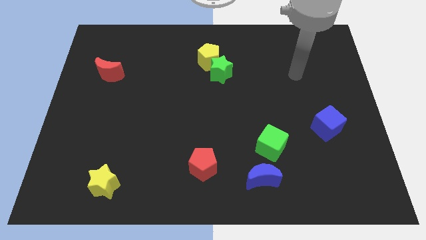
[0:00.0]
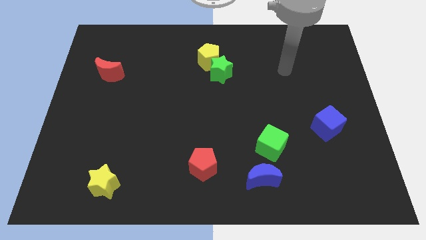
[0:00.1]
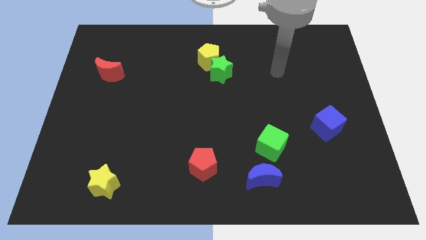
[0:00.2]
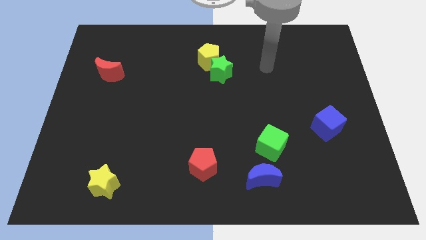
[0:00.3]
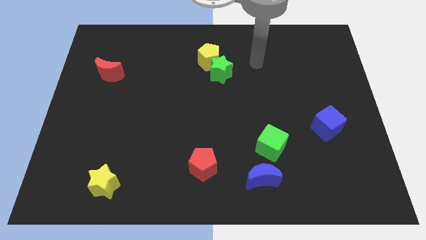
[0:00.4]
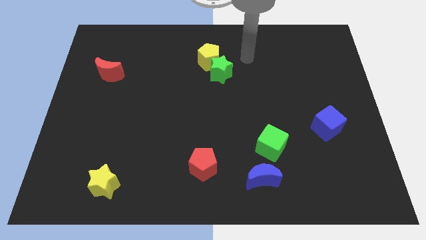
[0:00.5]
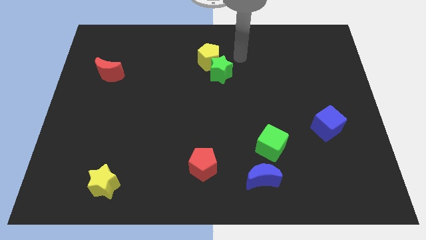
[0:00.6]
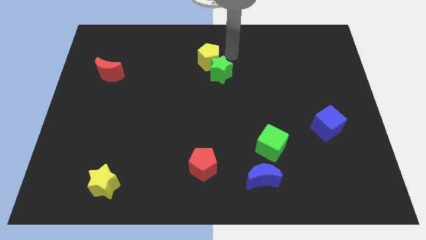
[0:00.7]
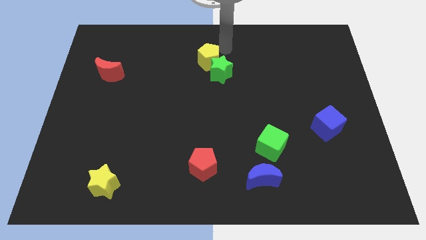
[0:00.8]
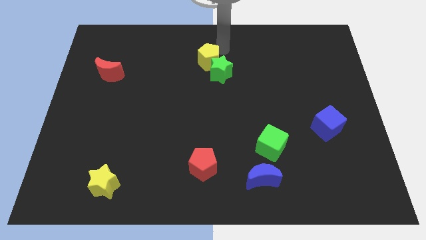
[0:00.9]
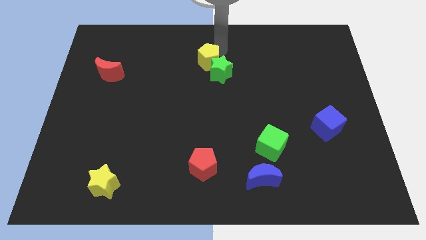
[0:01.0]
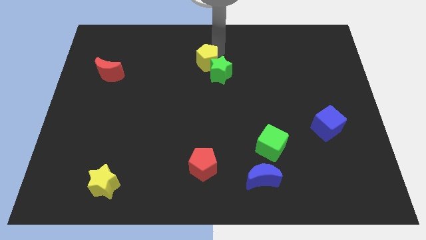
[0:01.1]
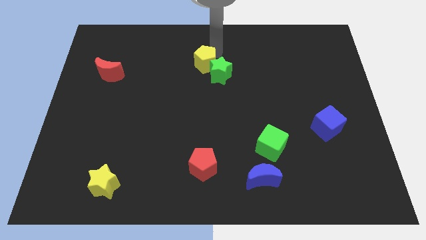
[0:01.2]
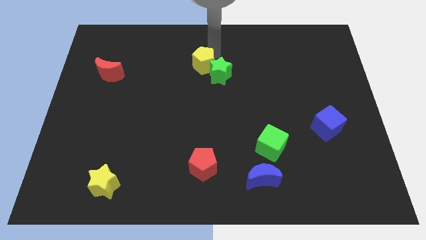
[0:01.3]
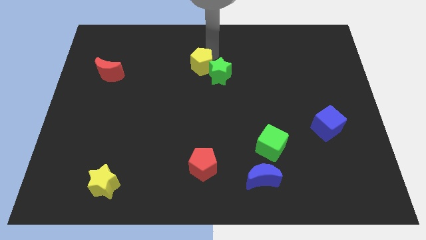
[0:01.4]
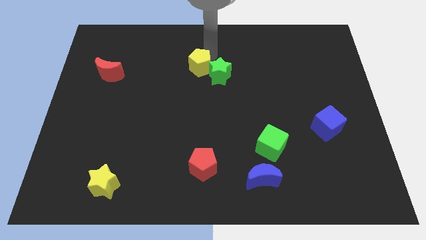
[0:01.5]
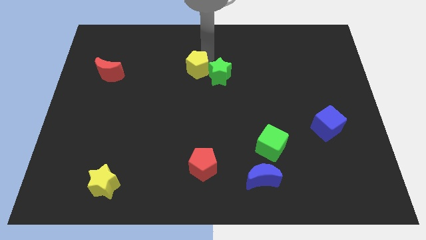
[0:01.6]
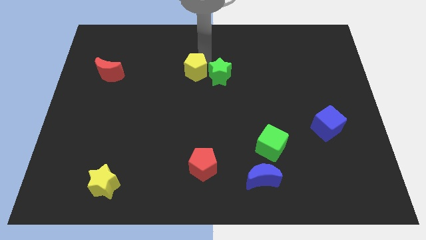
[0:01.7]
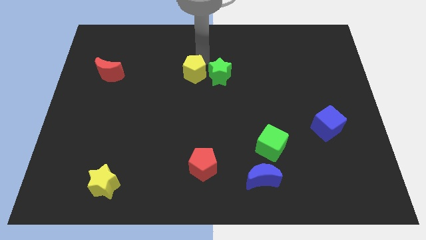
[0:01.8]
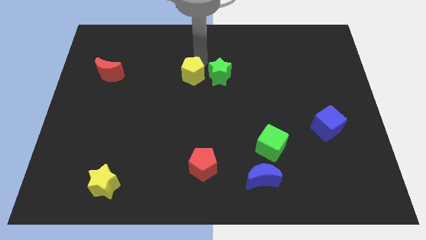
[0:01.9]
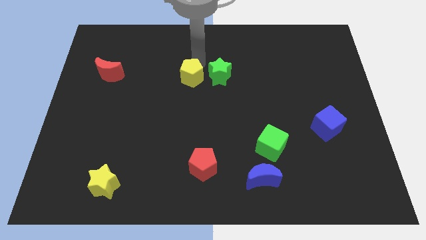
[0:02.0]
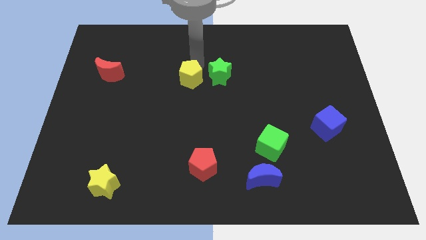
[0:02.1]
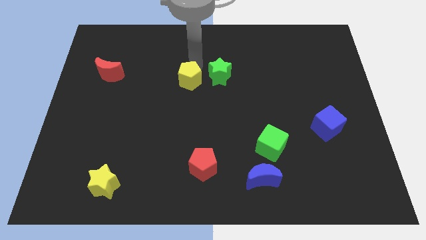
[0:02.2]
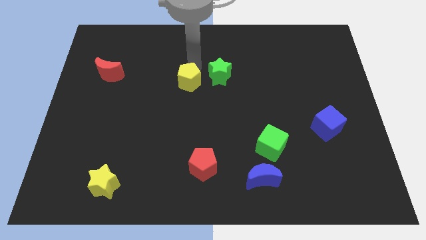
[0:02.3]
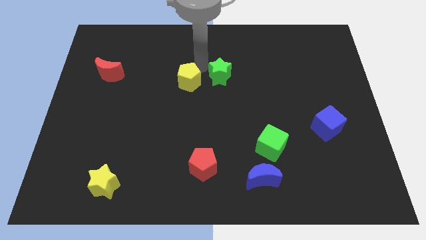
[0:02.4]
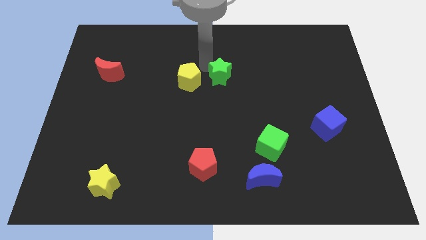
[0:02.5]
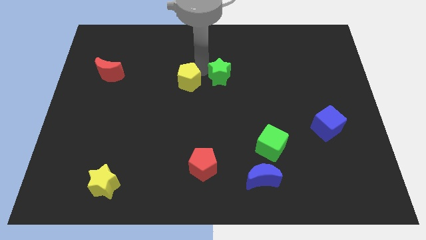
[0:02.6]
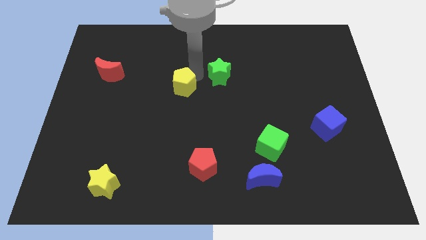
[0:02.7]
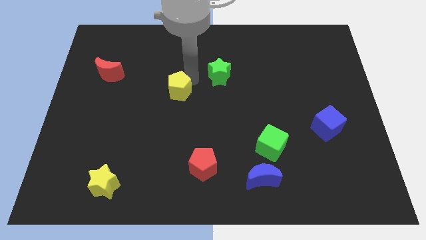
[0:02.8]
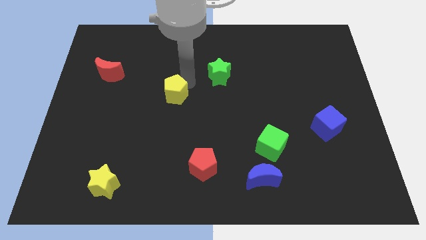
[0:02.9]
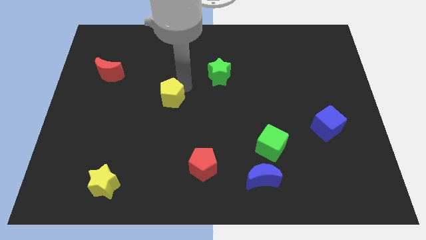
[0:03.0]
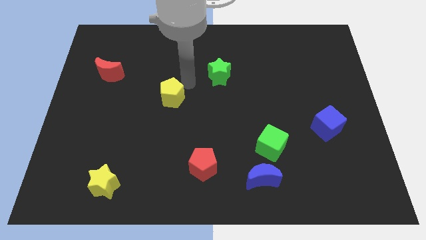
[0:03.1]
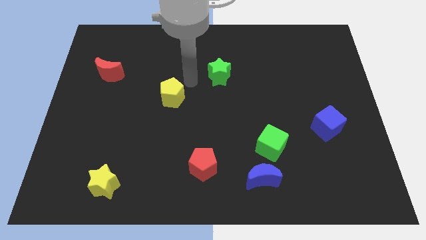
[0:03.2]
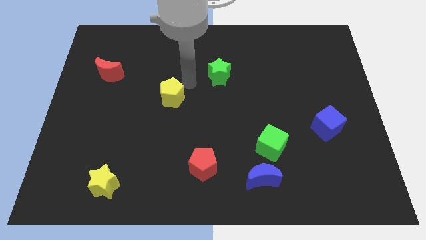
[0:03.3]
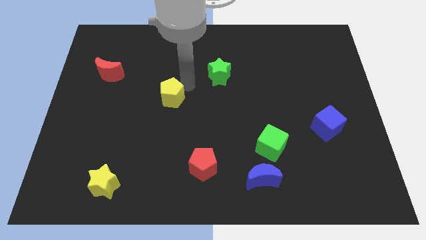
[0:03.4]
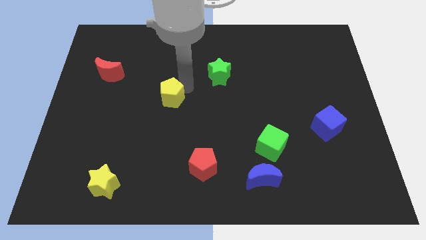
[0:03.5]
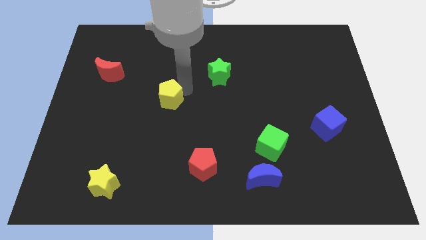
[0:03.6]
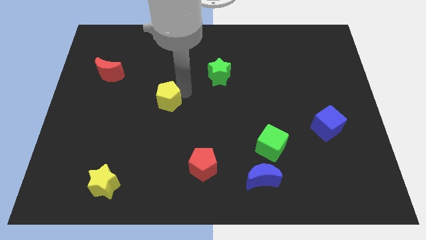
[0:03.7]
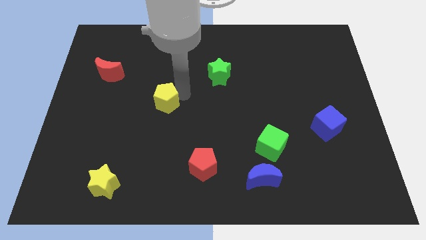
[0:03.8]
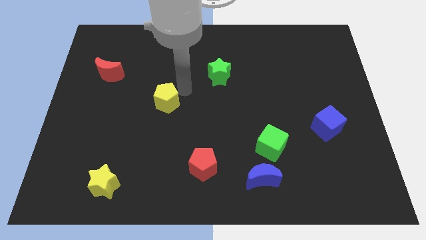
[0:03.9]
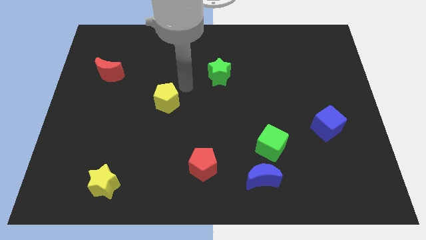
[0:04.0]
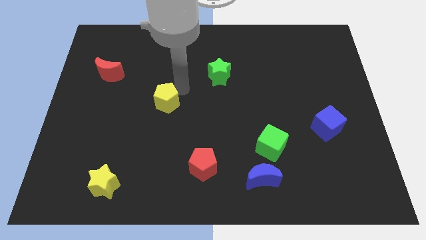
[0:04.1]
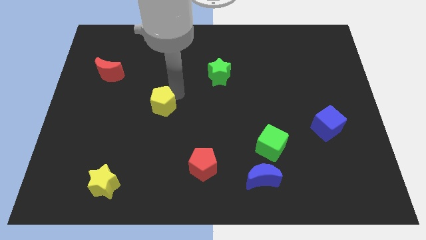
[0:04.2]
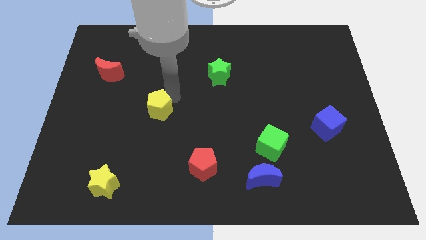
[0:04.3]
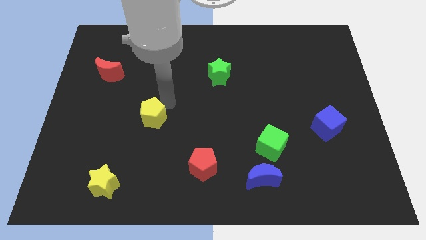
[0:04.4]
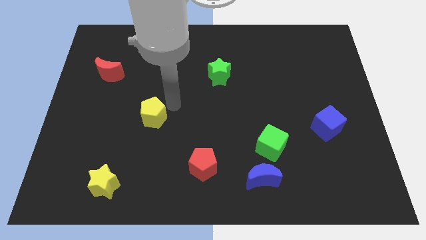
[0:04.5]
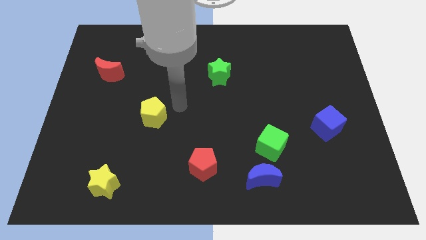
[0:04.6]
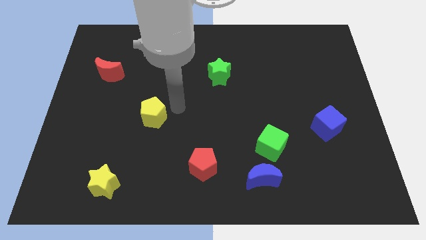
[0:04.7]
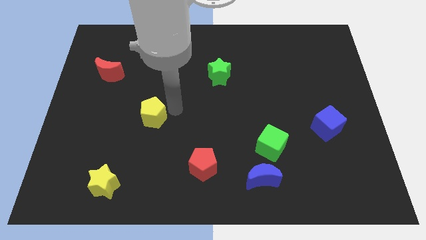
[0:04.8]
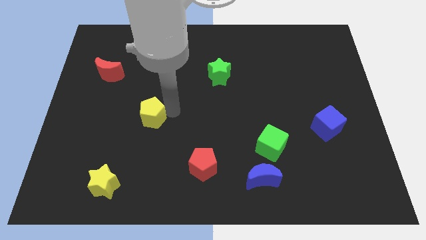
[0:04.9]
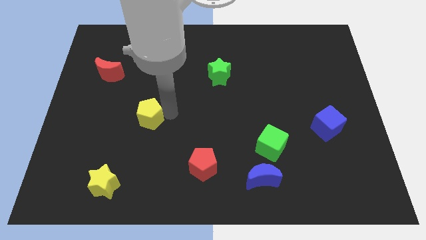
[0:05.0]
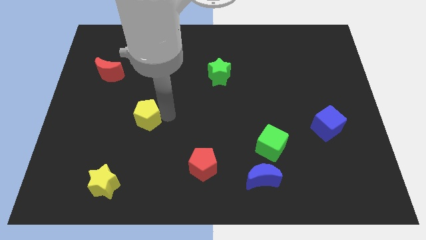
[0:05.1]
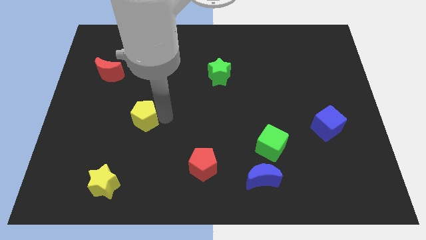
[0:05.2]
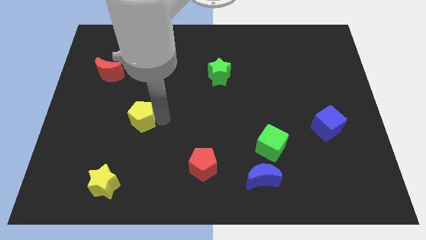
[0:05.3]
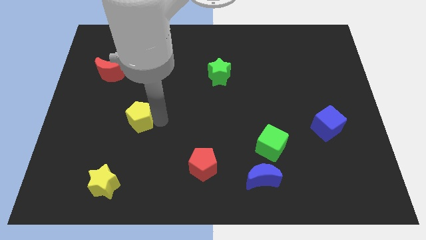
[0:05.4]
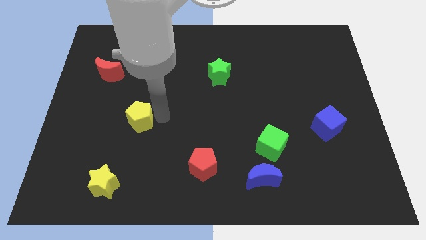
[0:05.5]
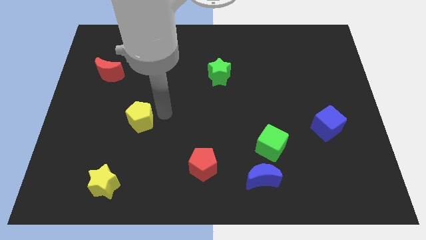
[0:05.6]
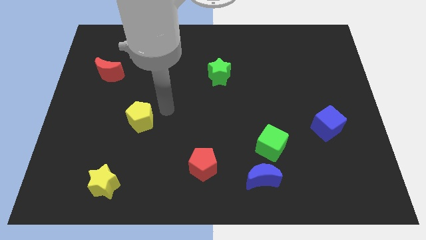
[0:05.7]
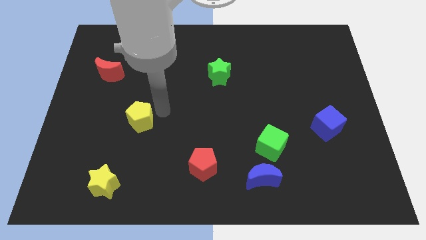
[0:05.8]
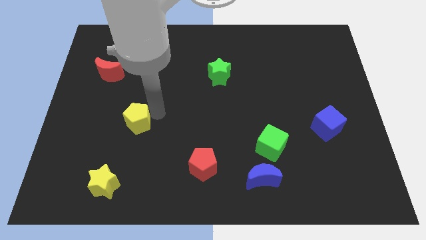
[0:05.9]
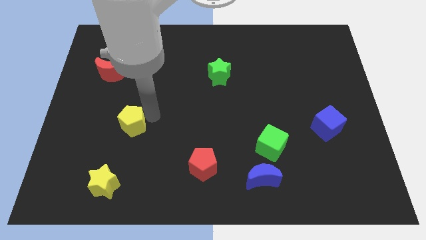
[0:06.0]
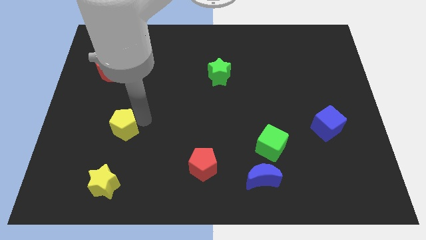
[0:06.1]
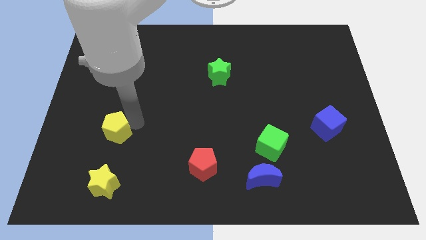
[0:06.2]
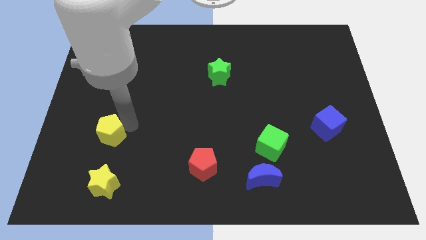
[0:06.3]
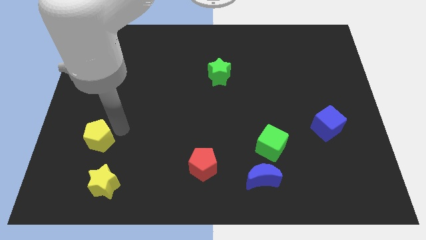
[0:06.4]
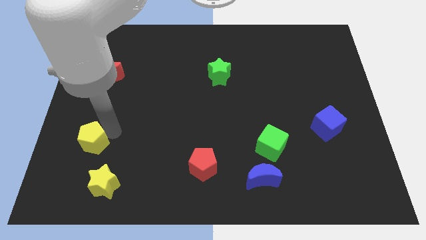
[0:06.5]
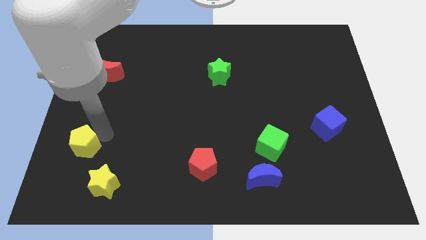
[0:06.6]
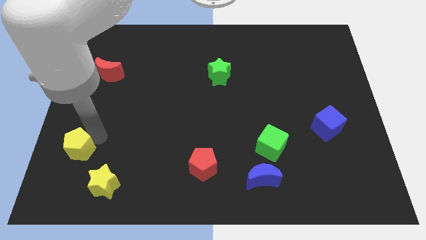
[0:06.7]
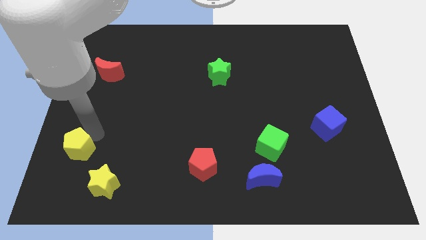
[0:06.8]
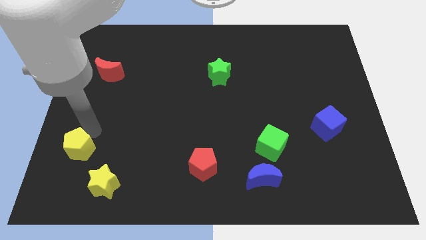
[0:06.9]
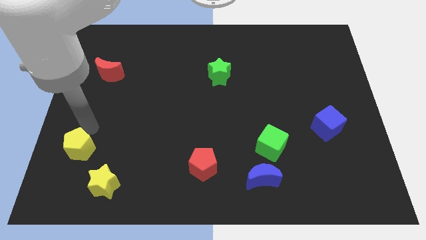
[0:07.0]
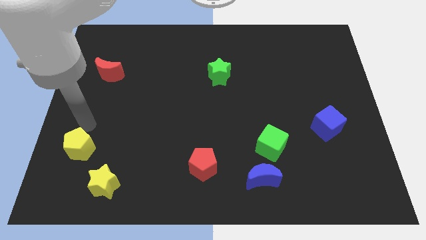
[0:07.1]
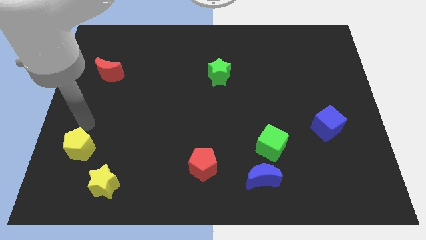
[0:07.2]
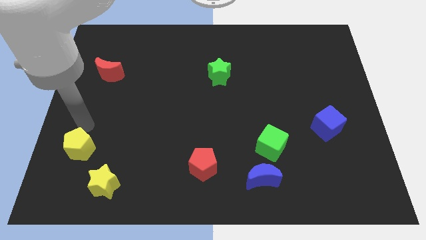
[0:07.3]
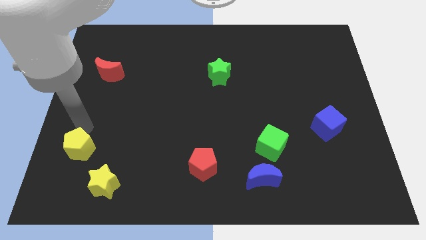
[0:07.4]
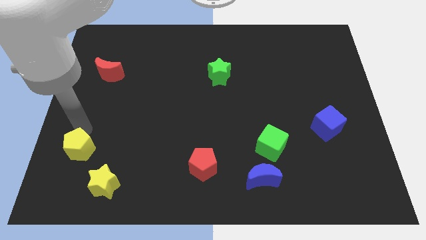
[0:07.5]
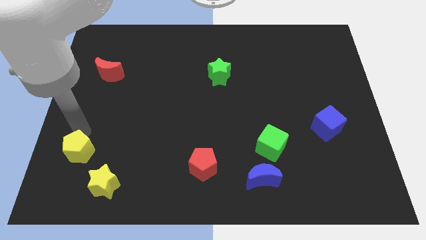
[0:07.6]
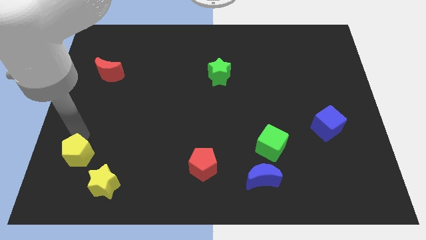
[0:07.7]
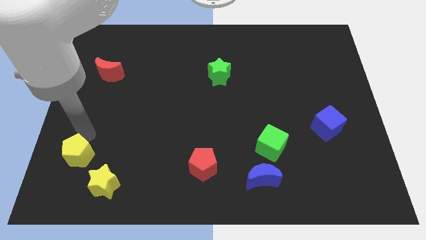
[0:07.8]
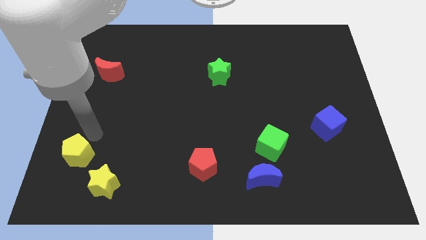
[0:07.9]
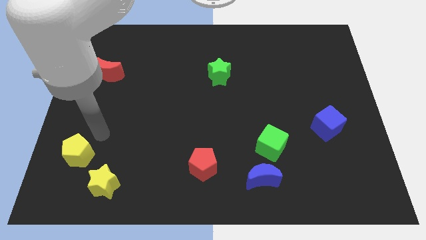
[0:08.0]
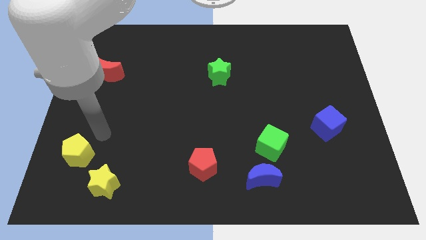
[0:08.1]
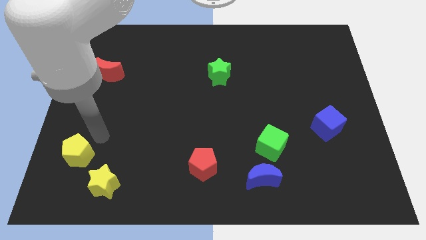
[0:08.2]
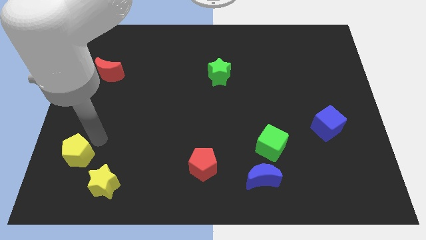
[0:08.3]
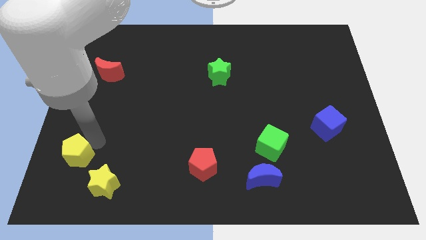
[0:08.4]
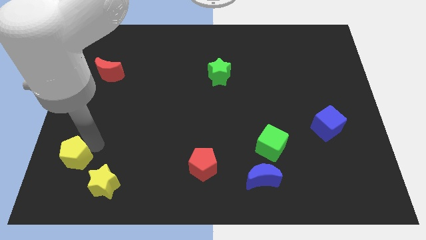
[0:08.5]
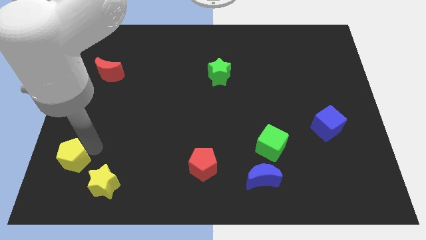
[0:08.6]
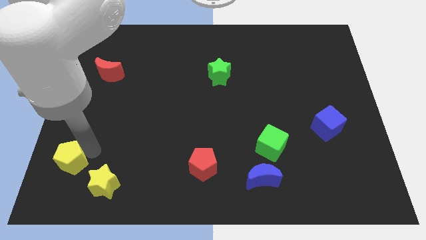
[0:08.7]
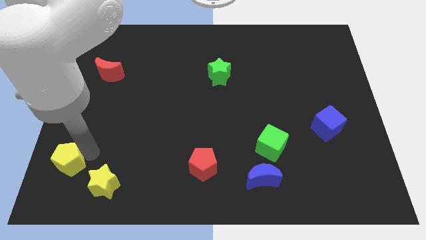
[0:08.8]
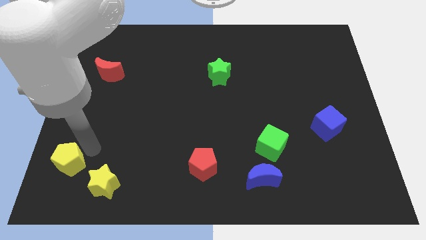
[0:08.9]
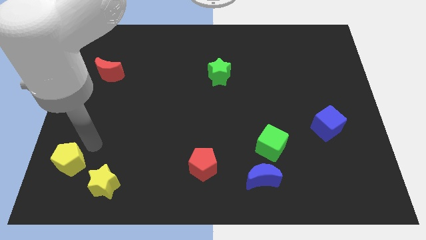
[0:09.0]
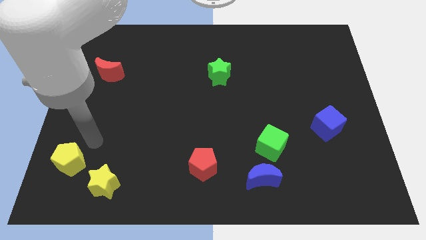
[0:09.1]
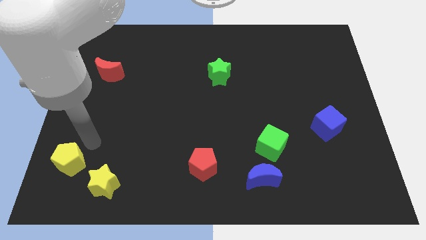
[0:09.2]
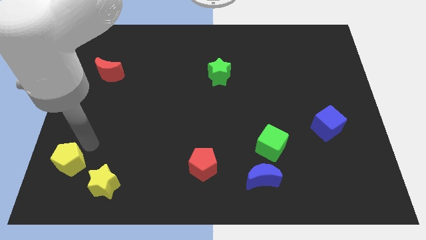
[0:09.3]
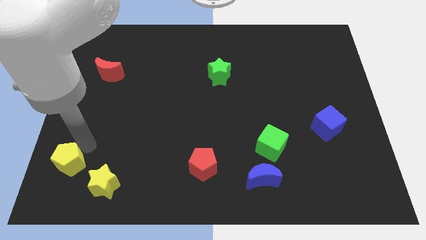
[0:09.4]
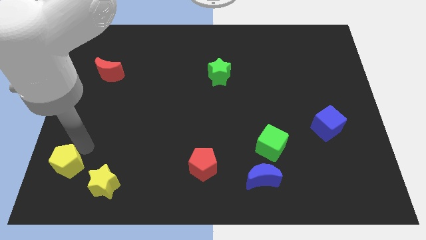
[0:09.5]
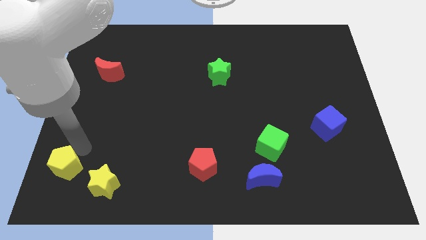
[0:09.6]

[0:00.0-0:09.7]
put the yellow pentagon to the bottom left corner
